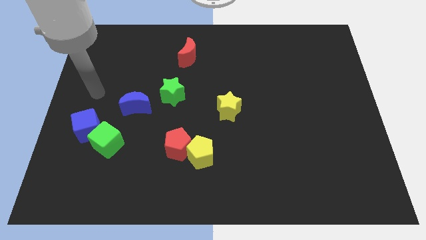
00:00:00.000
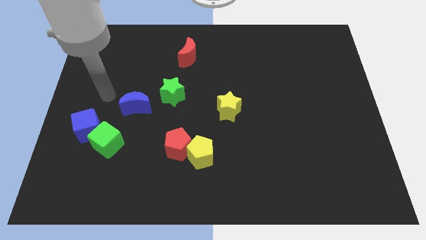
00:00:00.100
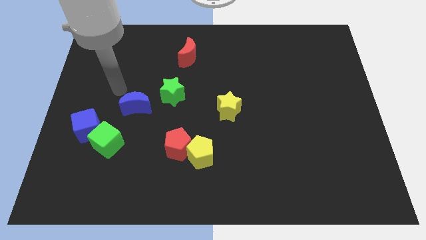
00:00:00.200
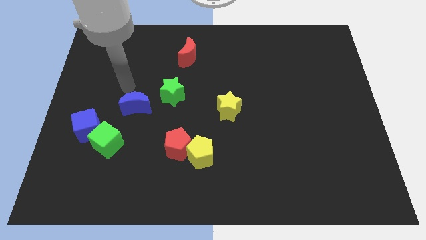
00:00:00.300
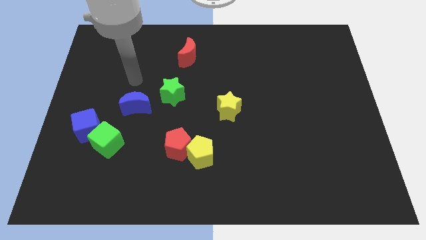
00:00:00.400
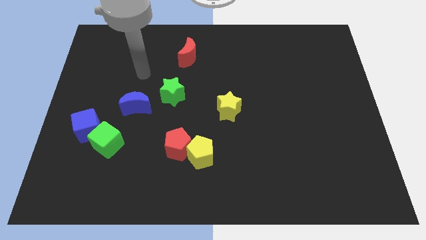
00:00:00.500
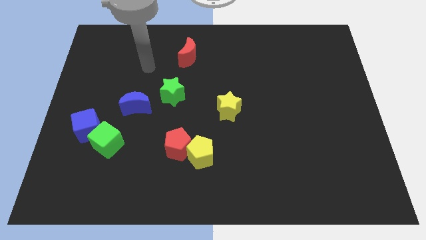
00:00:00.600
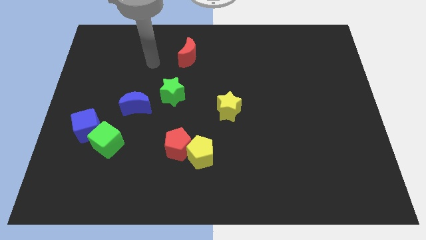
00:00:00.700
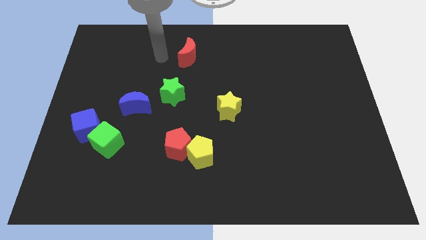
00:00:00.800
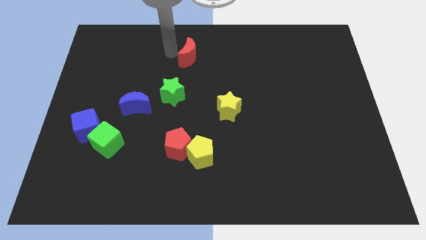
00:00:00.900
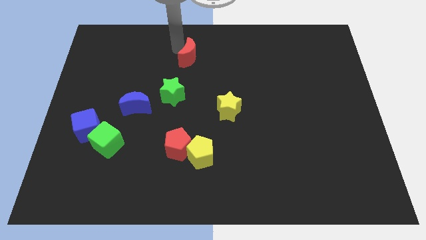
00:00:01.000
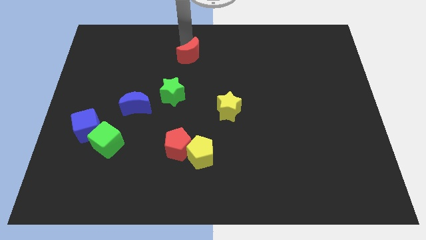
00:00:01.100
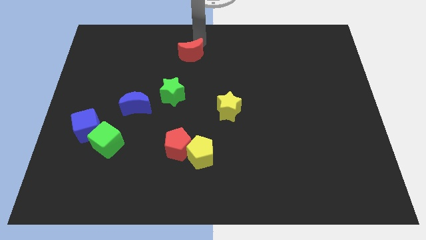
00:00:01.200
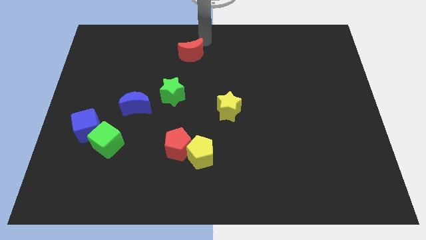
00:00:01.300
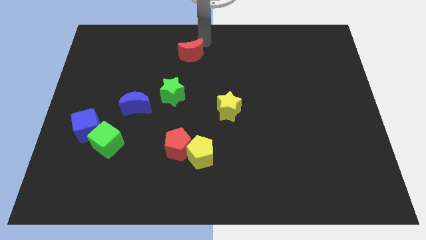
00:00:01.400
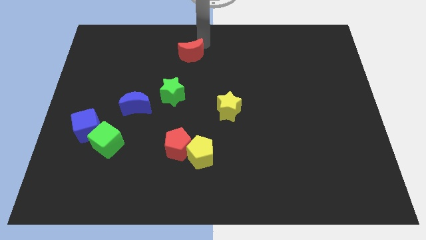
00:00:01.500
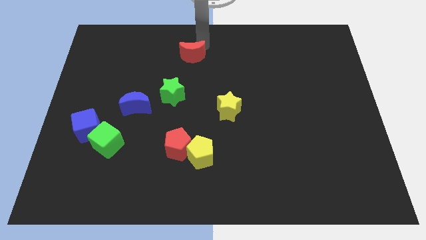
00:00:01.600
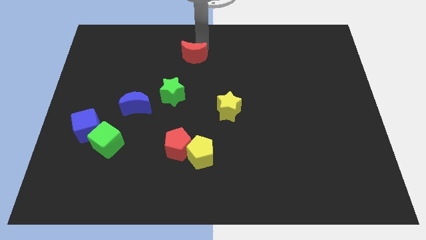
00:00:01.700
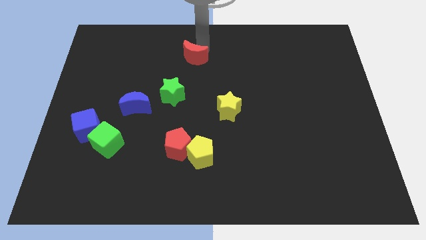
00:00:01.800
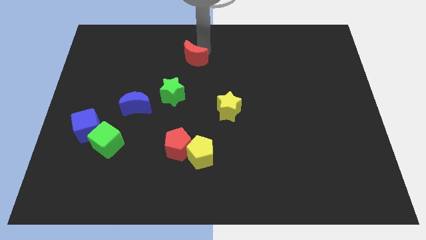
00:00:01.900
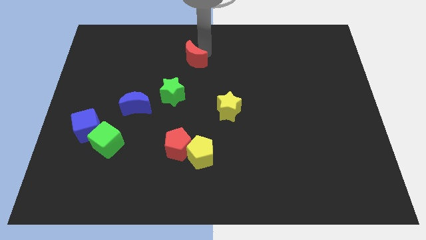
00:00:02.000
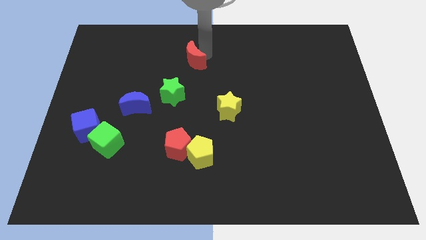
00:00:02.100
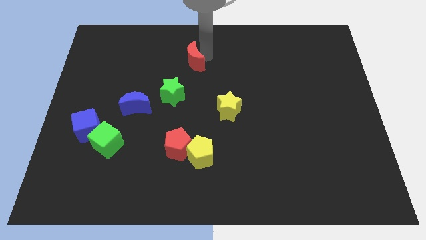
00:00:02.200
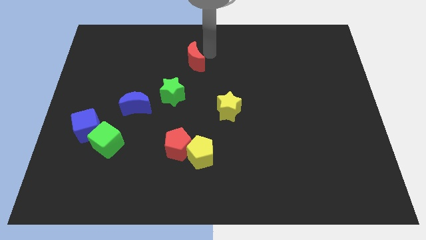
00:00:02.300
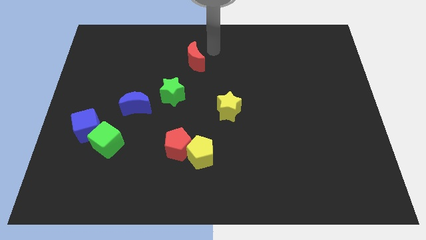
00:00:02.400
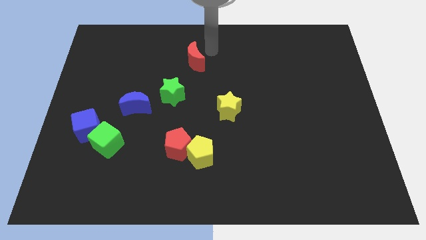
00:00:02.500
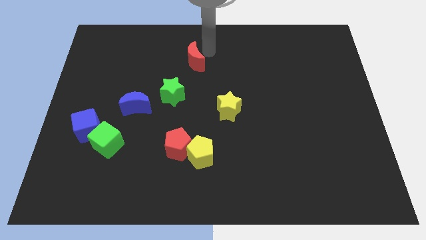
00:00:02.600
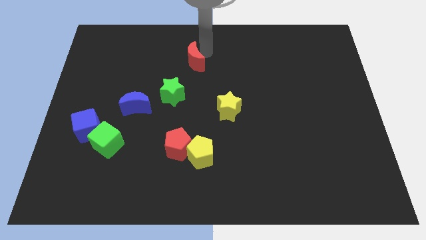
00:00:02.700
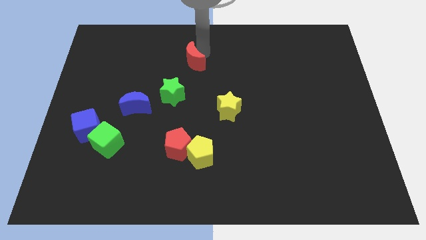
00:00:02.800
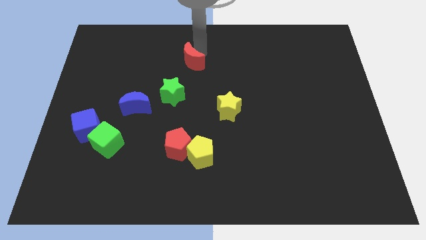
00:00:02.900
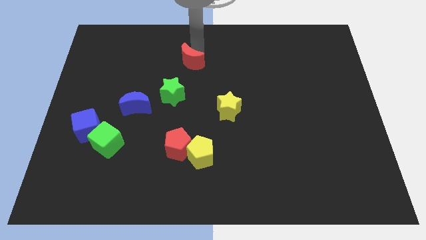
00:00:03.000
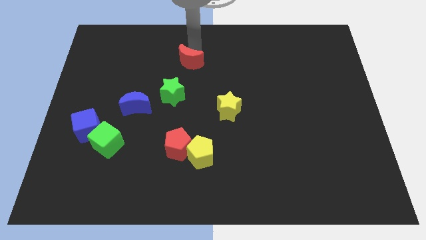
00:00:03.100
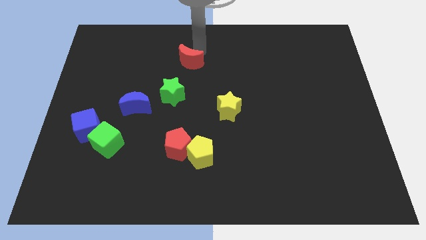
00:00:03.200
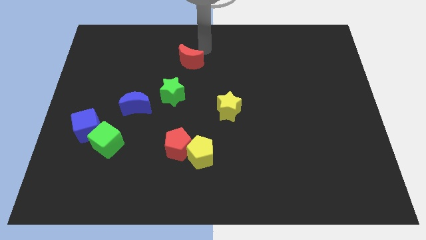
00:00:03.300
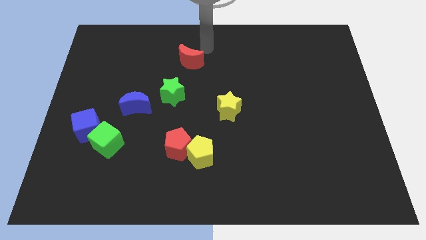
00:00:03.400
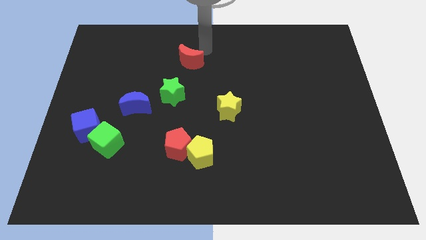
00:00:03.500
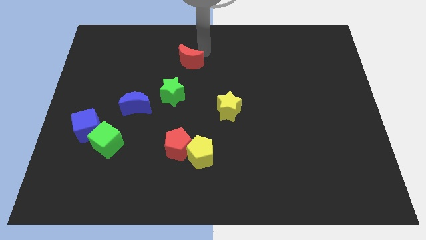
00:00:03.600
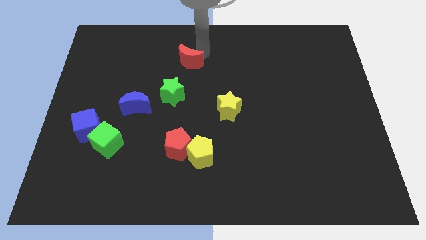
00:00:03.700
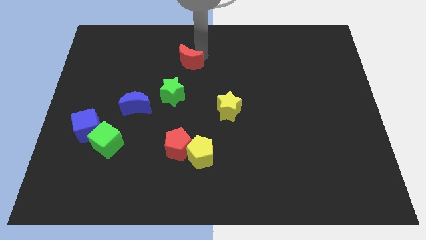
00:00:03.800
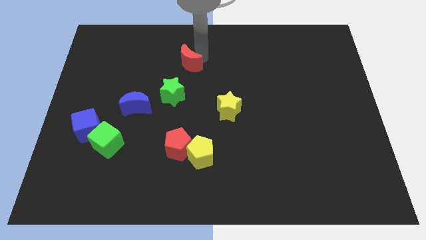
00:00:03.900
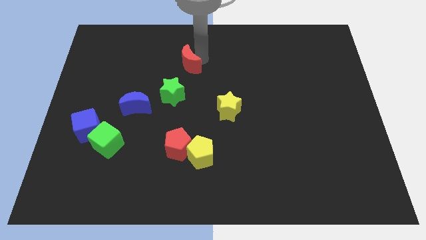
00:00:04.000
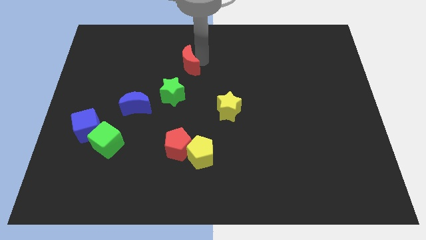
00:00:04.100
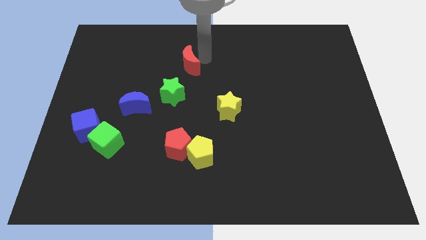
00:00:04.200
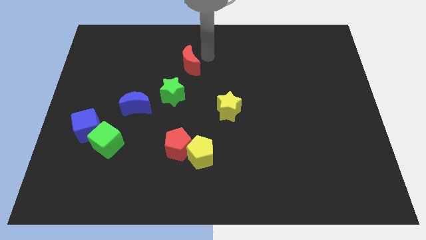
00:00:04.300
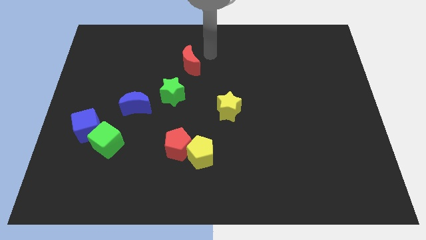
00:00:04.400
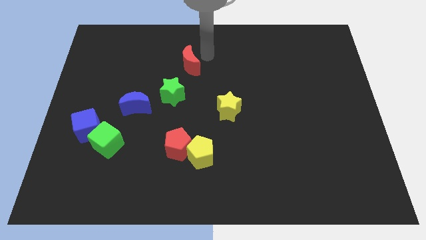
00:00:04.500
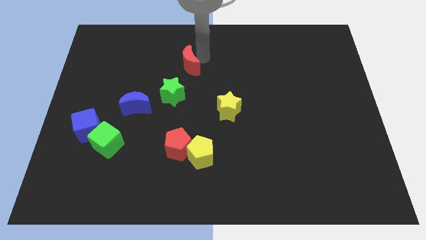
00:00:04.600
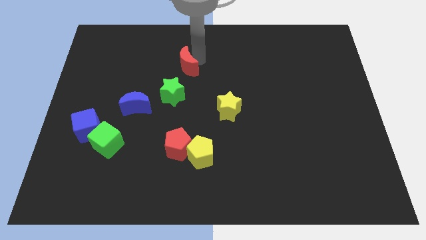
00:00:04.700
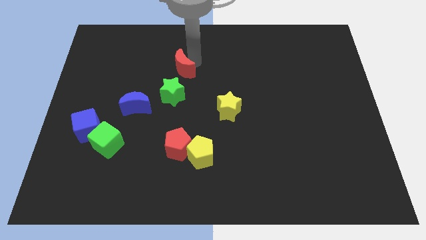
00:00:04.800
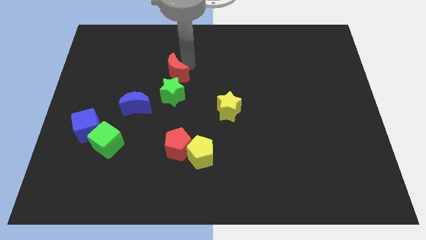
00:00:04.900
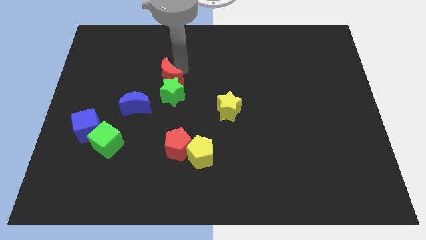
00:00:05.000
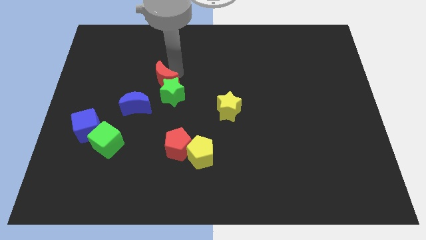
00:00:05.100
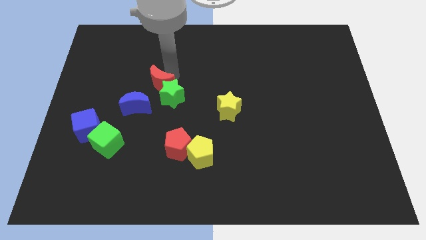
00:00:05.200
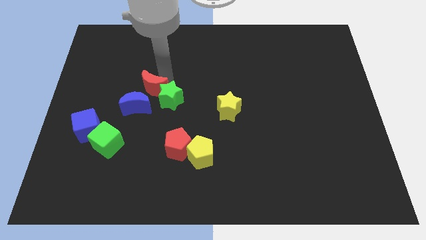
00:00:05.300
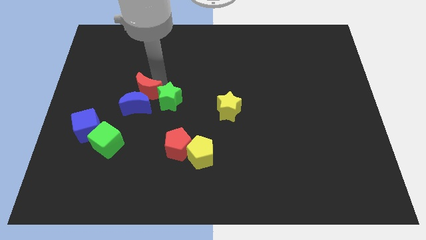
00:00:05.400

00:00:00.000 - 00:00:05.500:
slide the red moon next to the blue moon

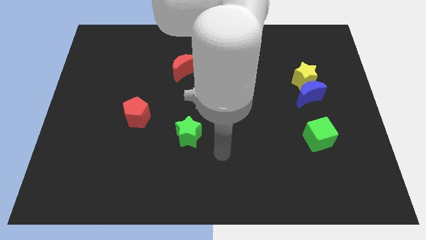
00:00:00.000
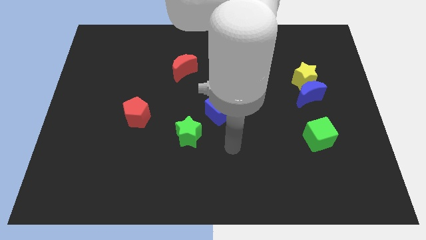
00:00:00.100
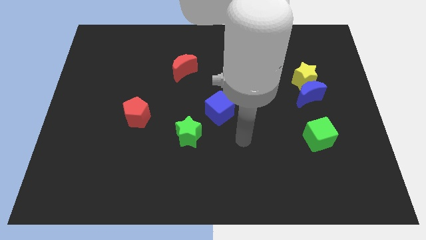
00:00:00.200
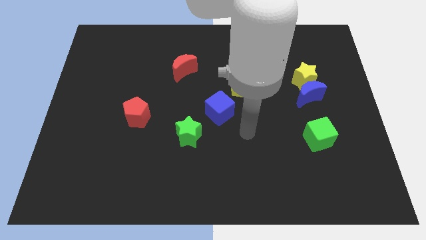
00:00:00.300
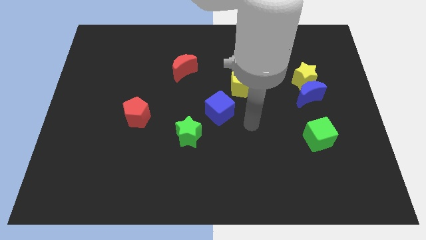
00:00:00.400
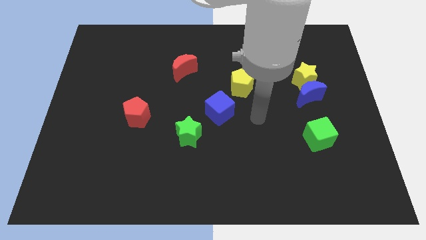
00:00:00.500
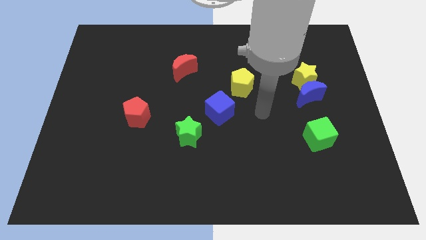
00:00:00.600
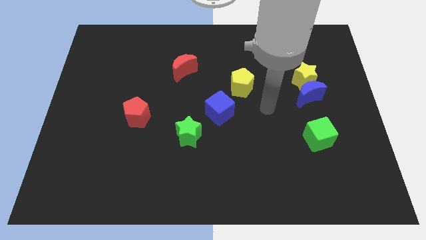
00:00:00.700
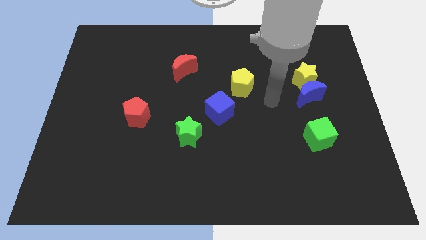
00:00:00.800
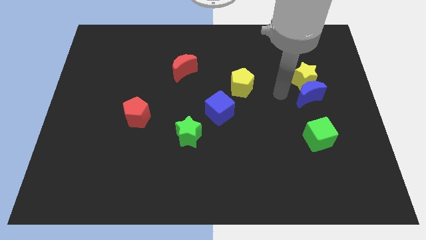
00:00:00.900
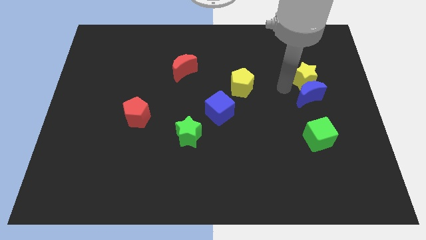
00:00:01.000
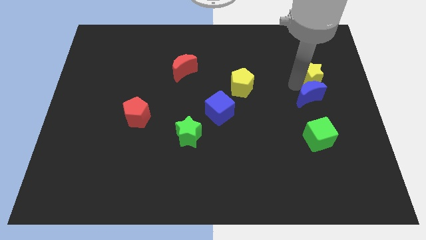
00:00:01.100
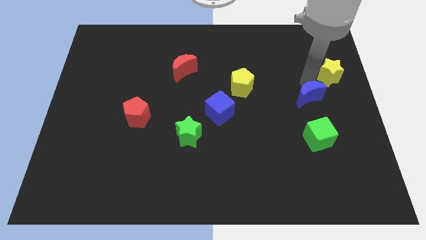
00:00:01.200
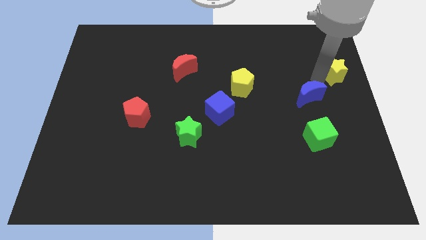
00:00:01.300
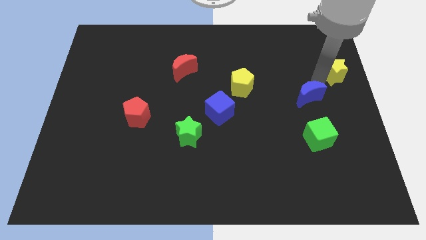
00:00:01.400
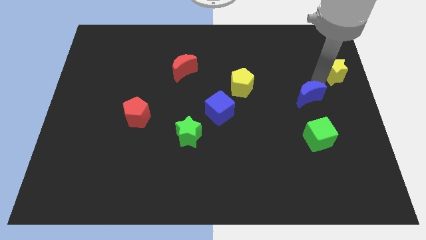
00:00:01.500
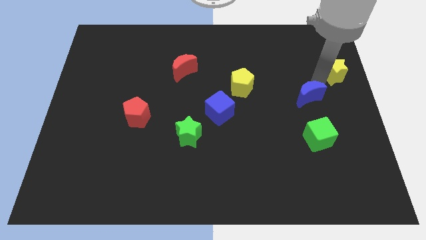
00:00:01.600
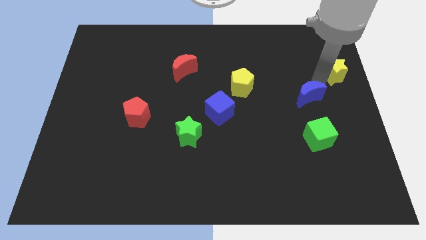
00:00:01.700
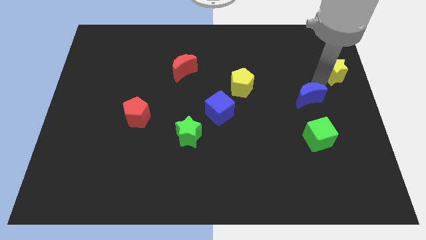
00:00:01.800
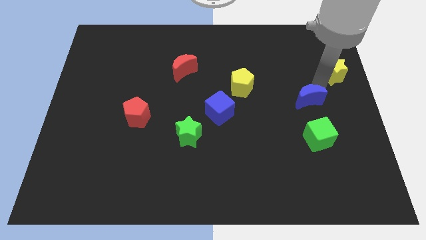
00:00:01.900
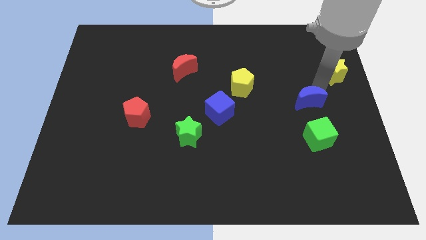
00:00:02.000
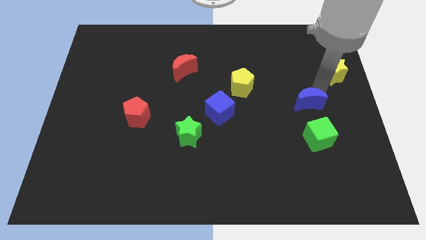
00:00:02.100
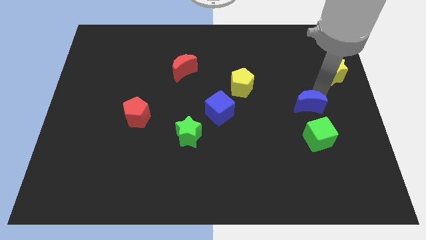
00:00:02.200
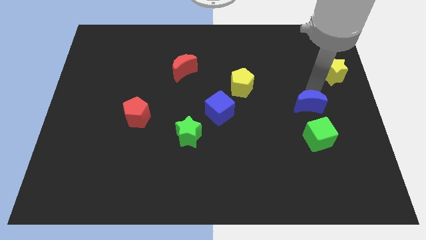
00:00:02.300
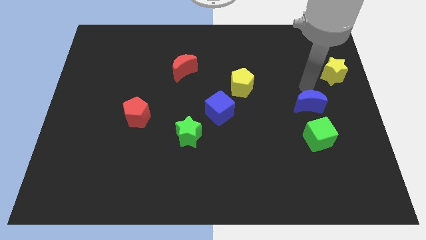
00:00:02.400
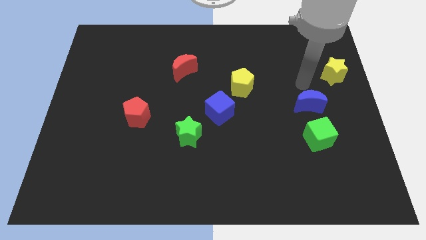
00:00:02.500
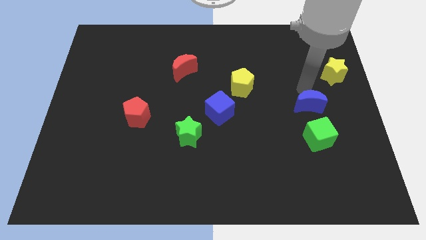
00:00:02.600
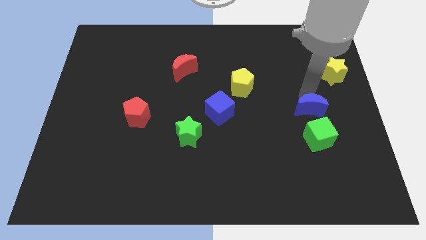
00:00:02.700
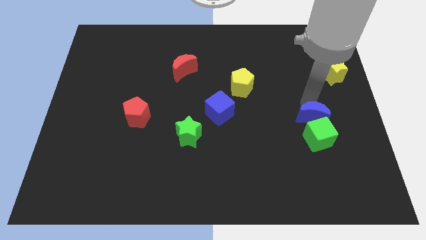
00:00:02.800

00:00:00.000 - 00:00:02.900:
put the blue moon towards the green cube
